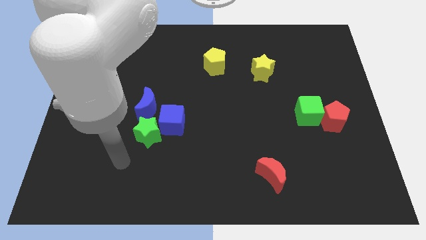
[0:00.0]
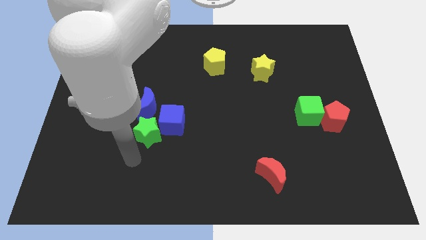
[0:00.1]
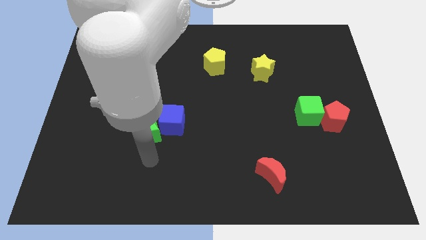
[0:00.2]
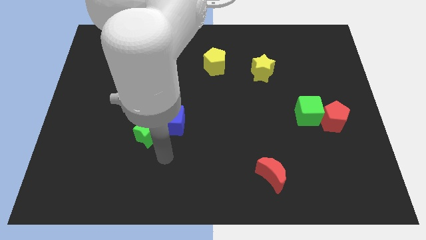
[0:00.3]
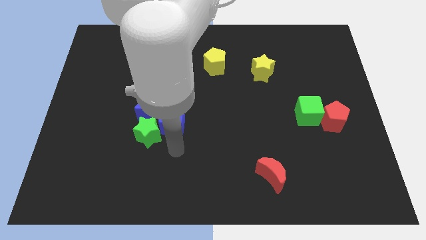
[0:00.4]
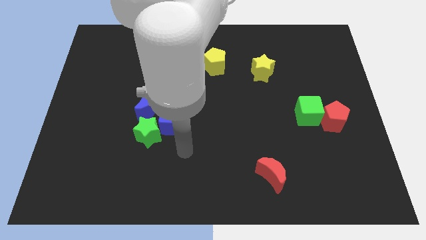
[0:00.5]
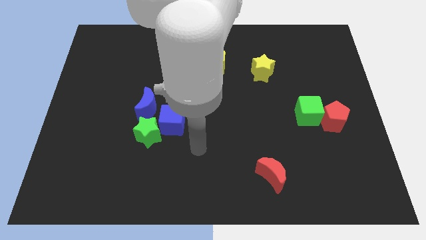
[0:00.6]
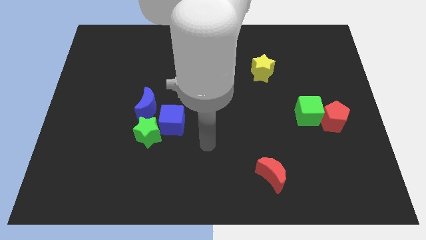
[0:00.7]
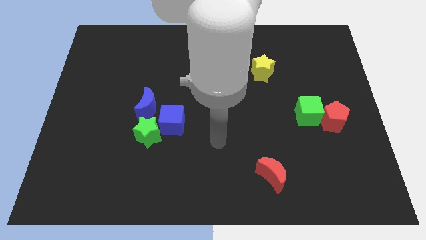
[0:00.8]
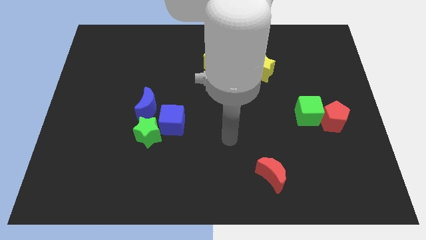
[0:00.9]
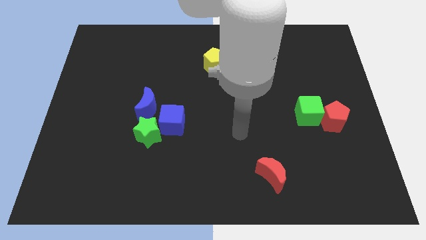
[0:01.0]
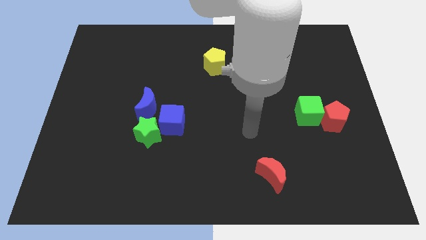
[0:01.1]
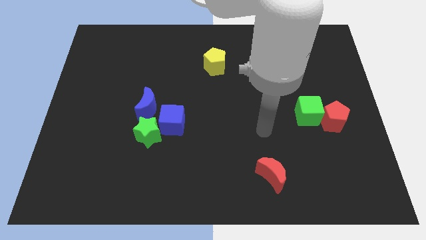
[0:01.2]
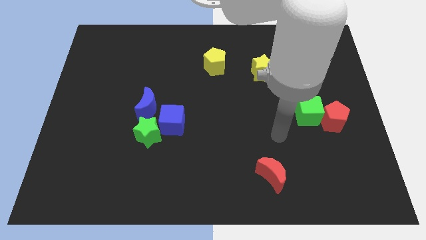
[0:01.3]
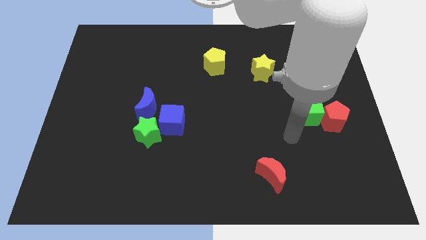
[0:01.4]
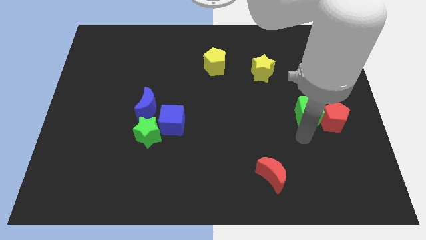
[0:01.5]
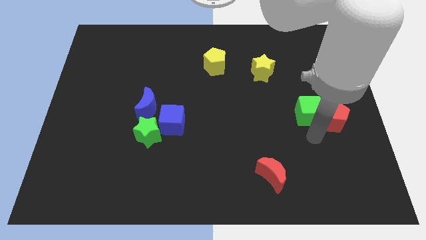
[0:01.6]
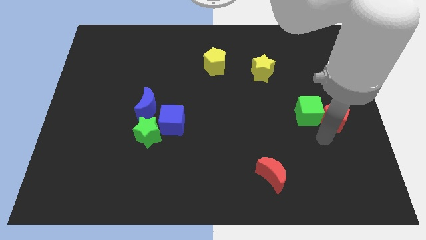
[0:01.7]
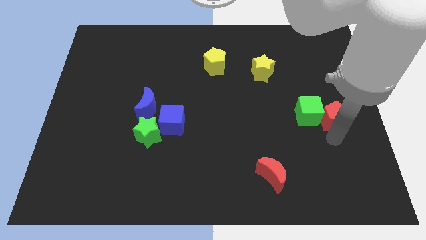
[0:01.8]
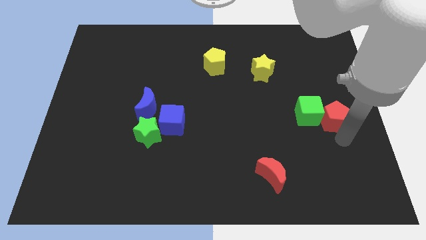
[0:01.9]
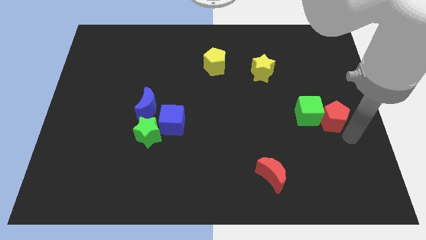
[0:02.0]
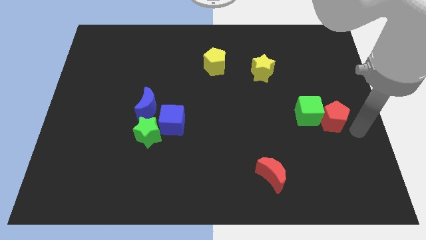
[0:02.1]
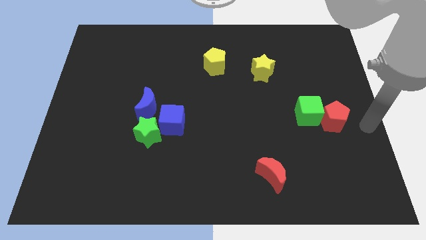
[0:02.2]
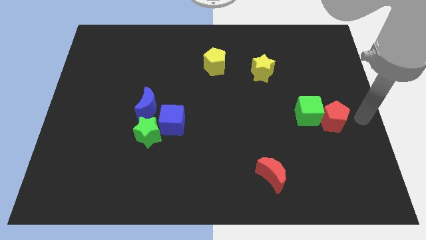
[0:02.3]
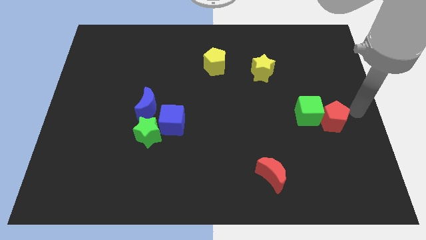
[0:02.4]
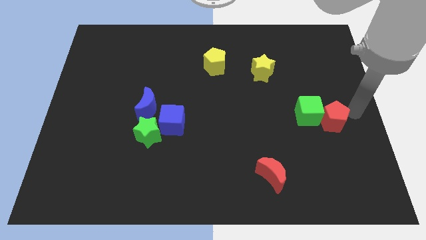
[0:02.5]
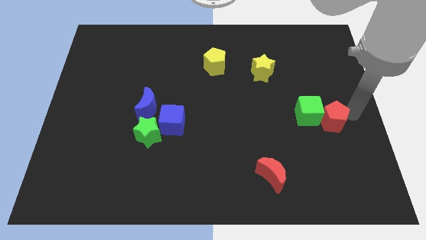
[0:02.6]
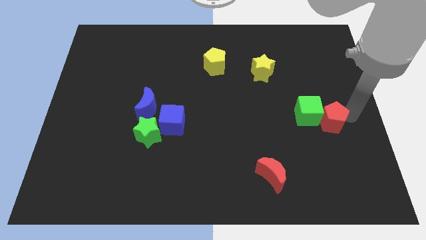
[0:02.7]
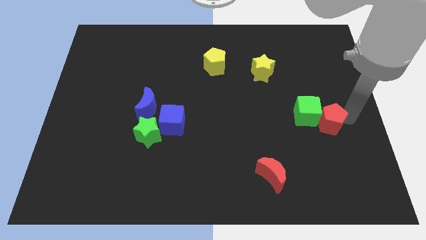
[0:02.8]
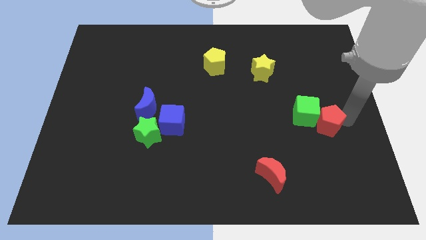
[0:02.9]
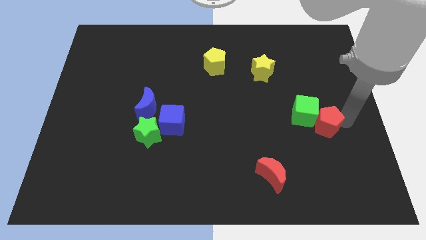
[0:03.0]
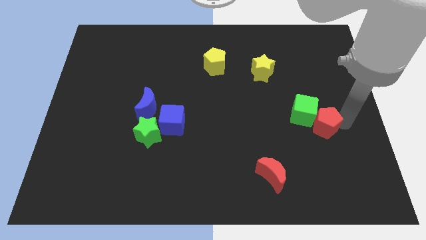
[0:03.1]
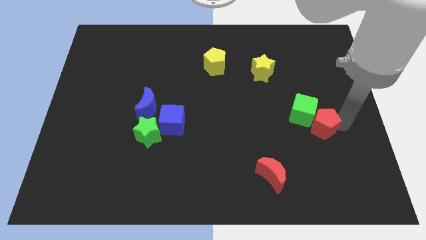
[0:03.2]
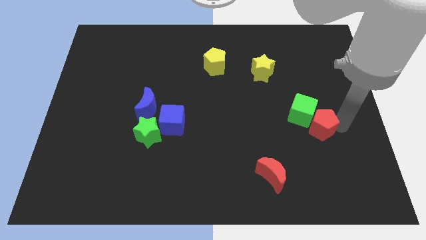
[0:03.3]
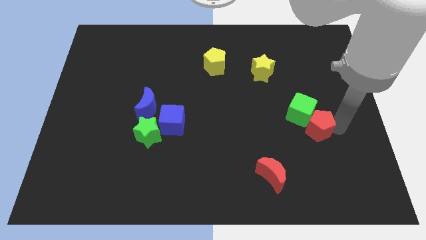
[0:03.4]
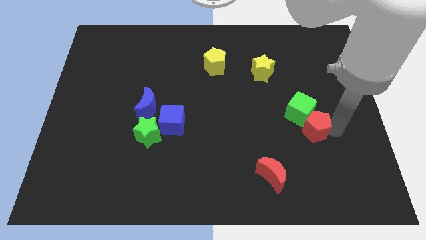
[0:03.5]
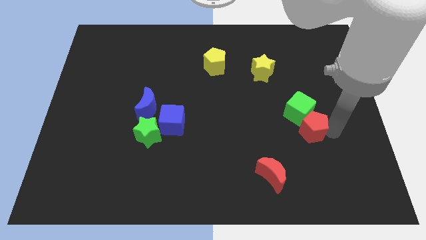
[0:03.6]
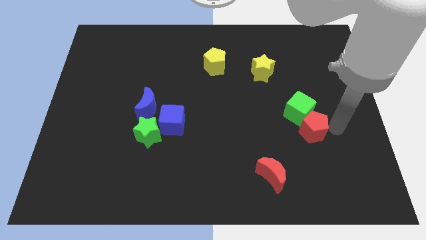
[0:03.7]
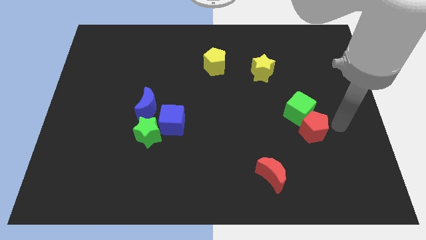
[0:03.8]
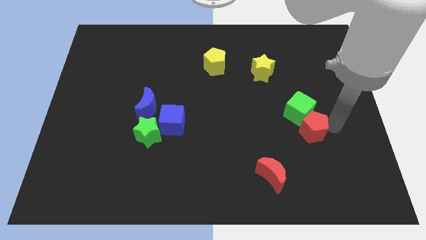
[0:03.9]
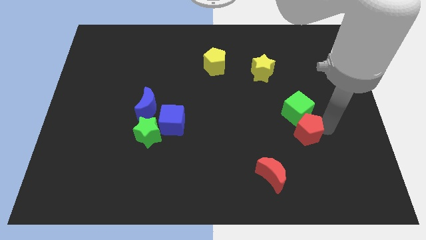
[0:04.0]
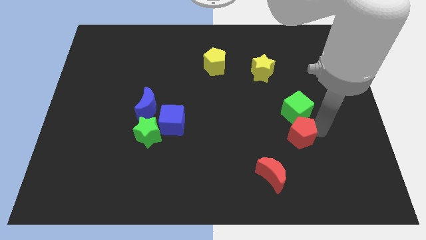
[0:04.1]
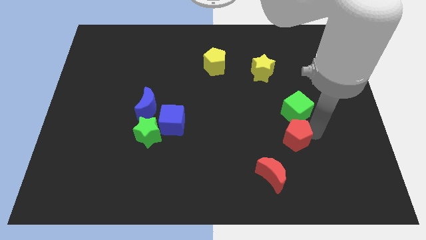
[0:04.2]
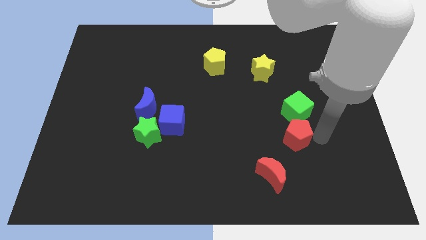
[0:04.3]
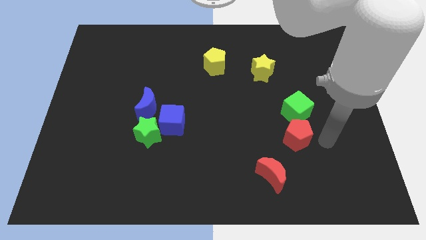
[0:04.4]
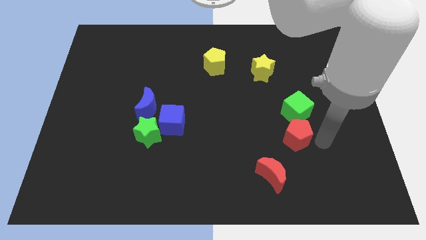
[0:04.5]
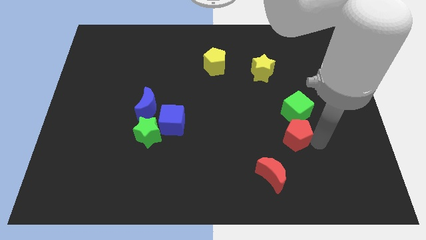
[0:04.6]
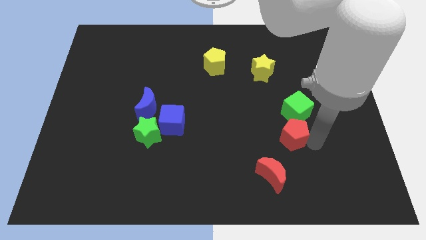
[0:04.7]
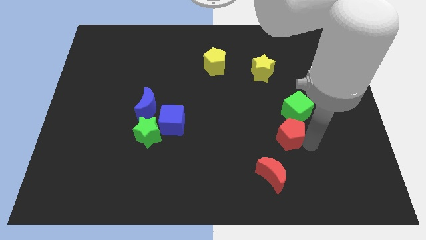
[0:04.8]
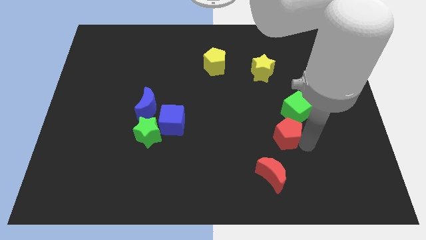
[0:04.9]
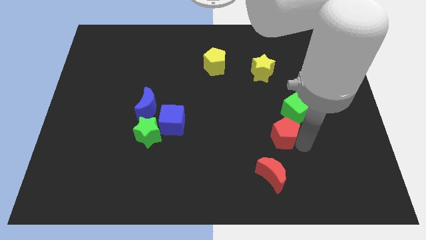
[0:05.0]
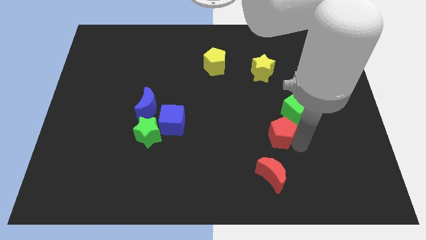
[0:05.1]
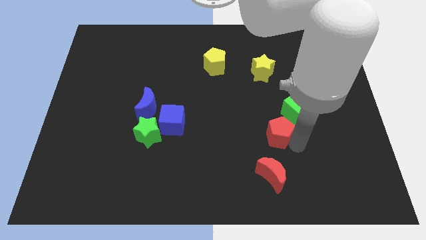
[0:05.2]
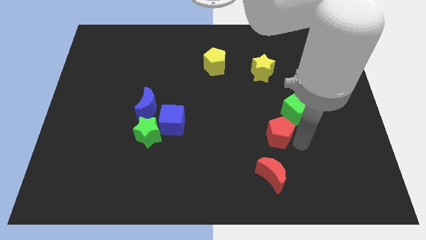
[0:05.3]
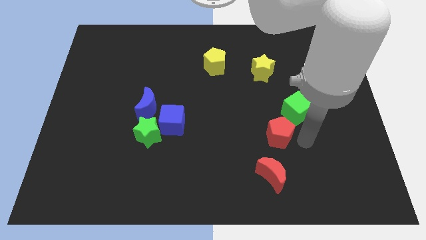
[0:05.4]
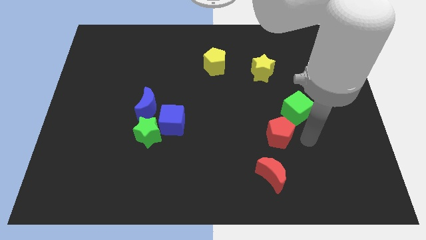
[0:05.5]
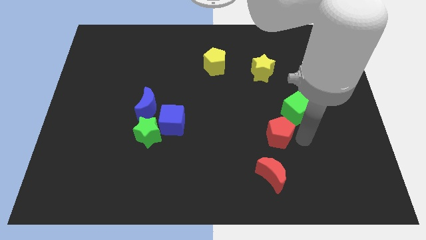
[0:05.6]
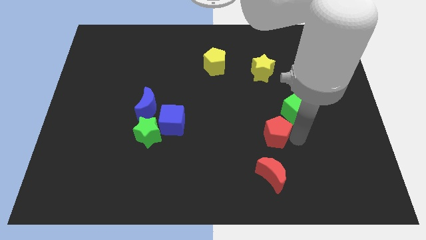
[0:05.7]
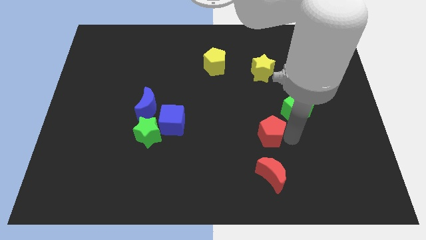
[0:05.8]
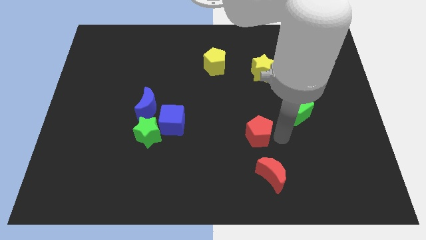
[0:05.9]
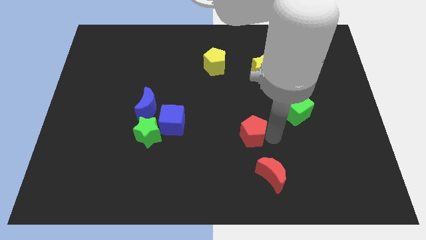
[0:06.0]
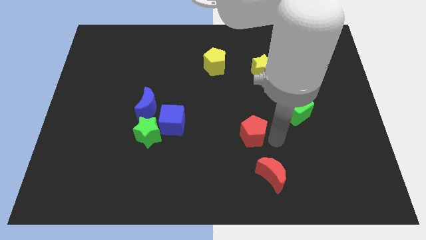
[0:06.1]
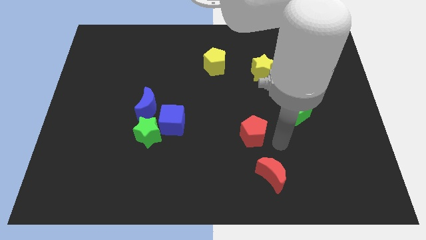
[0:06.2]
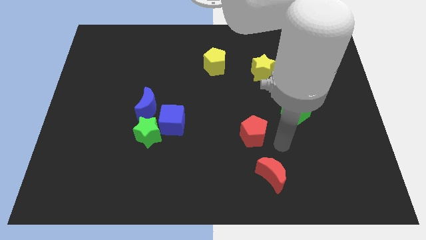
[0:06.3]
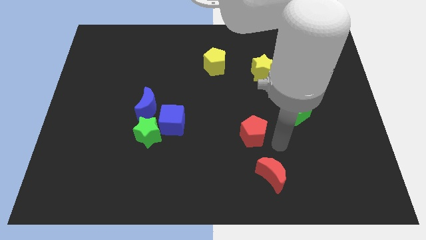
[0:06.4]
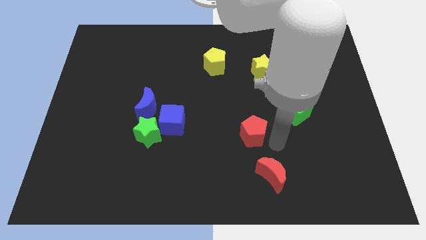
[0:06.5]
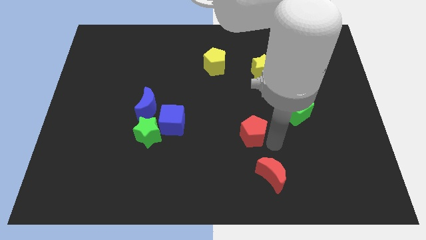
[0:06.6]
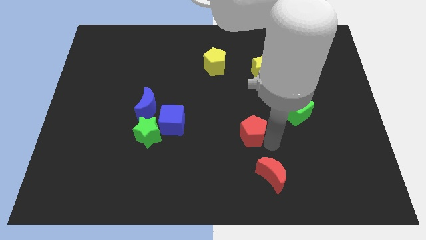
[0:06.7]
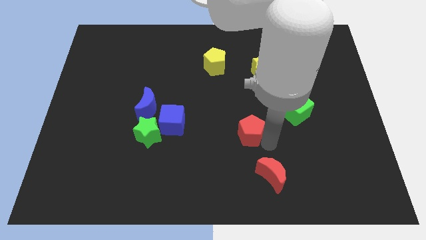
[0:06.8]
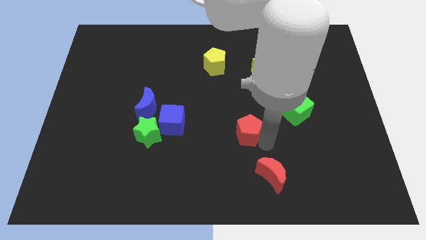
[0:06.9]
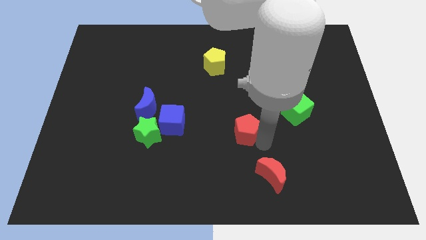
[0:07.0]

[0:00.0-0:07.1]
slide the red pentagon to the left

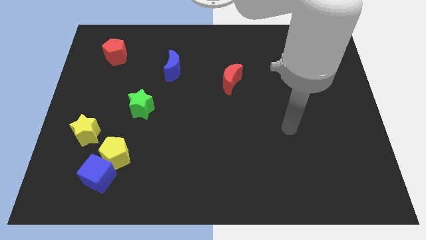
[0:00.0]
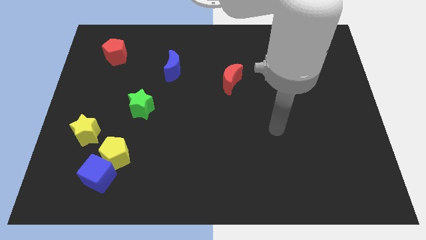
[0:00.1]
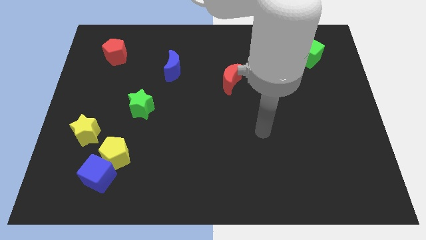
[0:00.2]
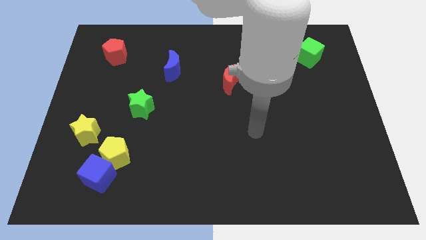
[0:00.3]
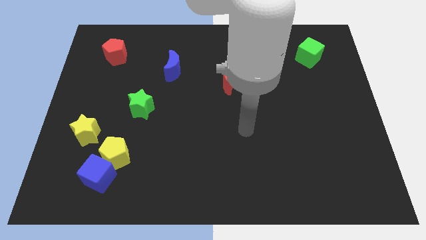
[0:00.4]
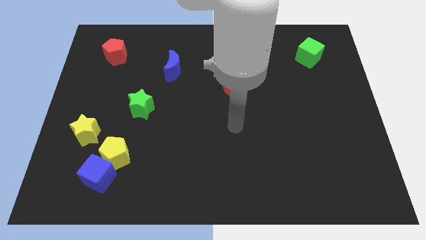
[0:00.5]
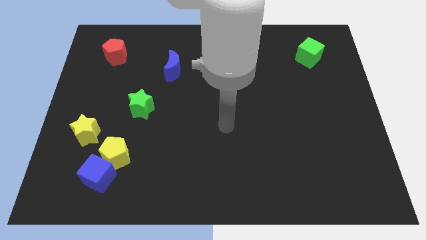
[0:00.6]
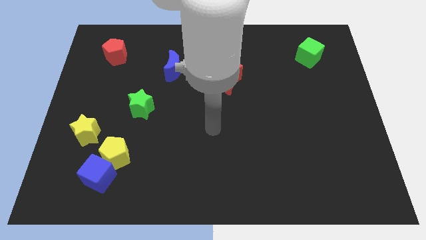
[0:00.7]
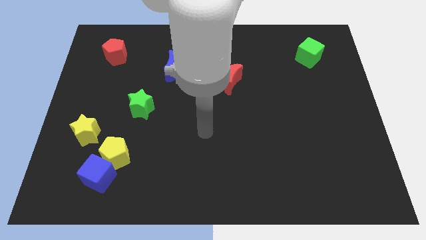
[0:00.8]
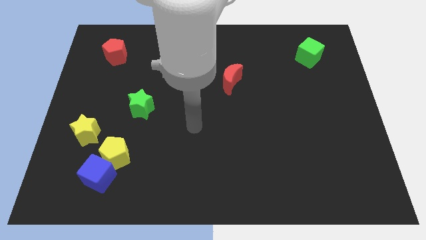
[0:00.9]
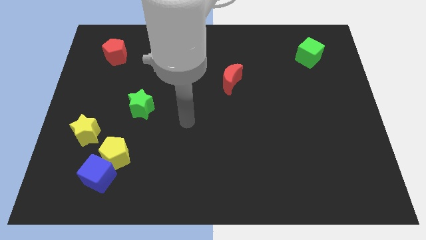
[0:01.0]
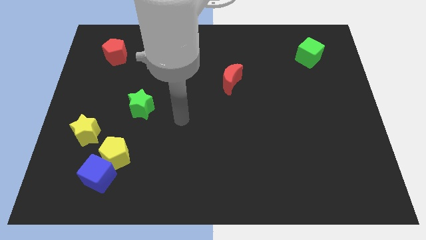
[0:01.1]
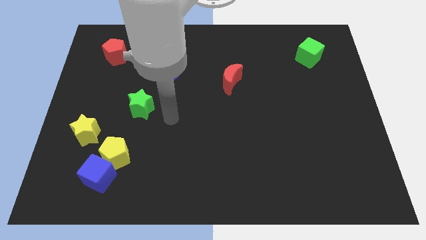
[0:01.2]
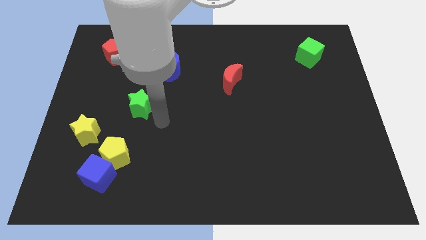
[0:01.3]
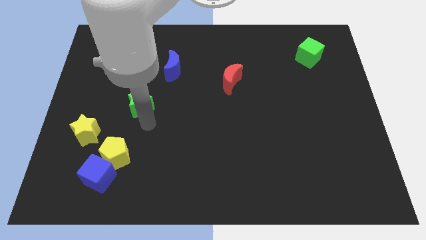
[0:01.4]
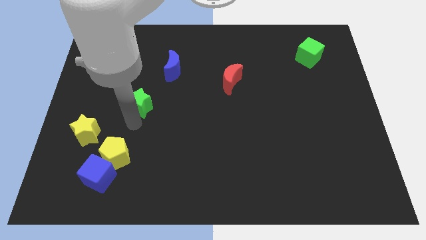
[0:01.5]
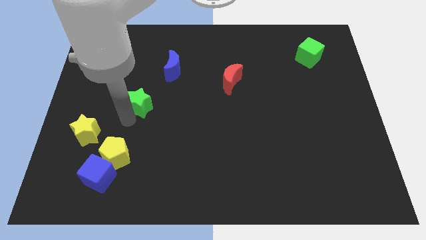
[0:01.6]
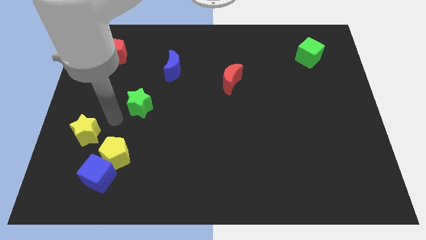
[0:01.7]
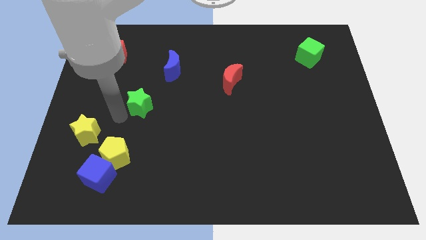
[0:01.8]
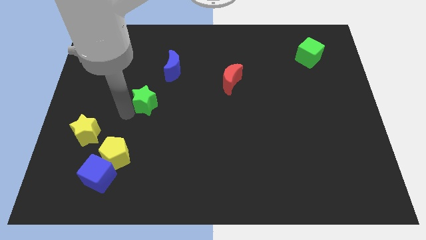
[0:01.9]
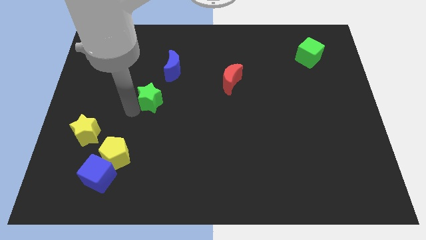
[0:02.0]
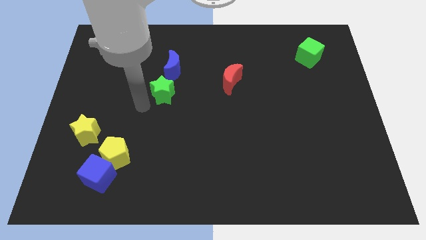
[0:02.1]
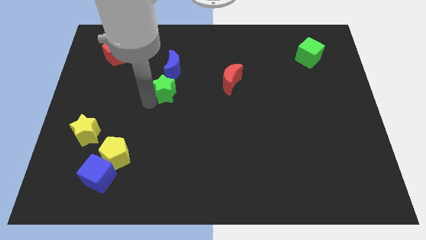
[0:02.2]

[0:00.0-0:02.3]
slightly slide the green star up and right diagonally
